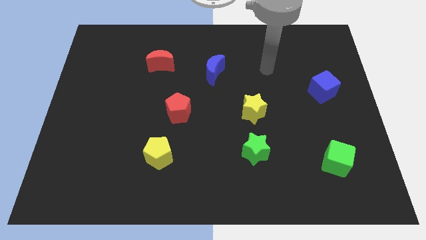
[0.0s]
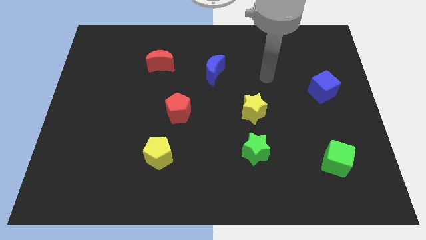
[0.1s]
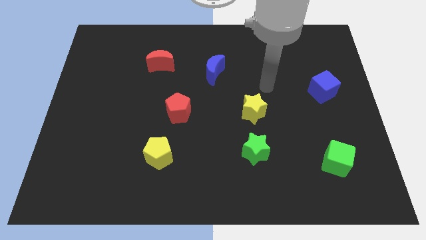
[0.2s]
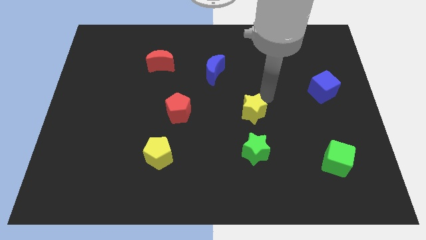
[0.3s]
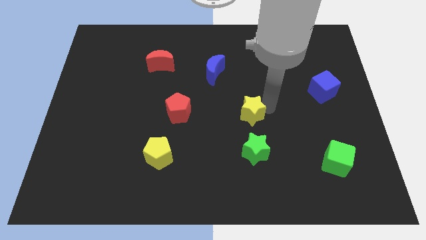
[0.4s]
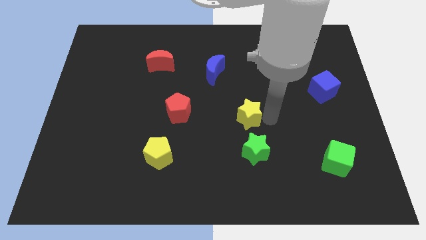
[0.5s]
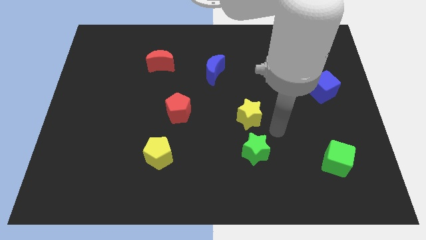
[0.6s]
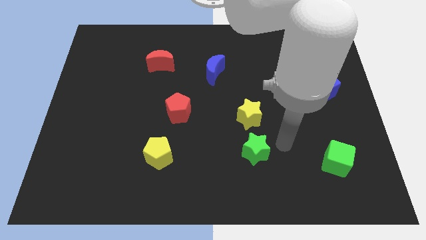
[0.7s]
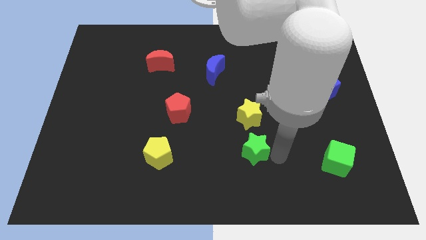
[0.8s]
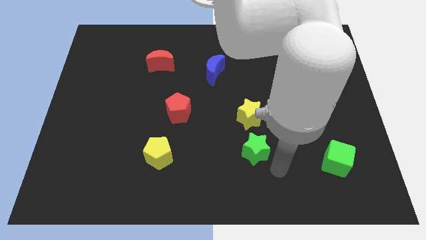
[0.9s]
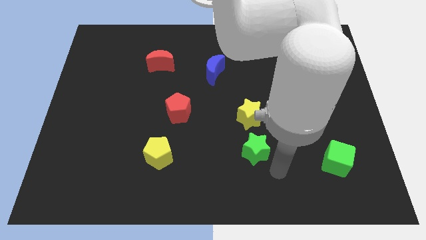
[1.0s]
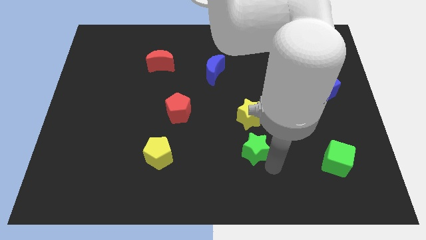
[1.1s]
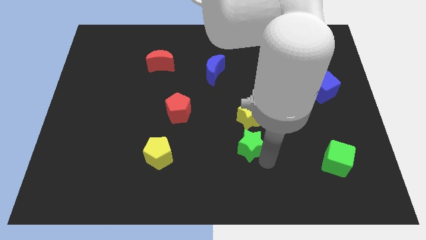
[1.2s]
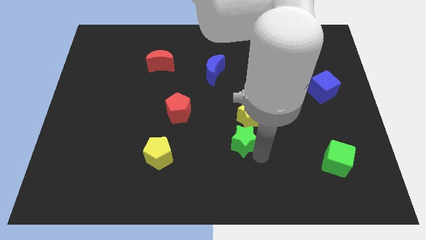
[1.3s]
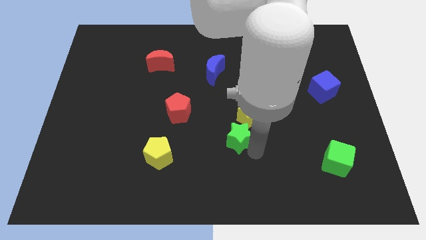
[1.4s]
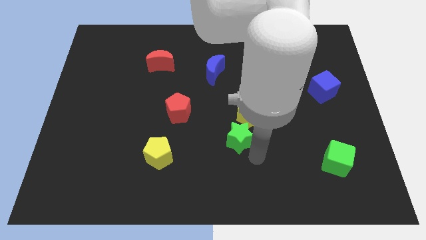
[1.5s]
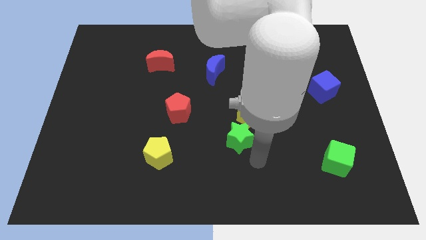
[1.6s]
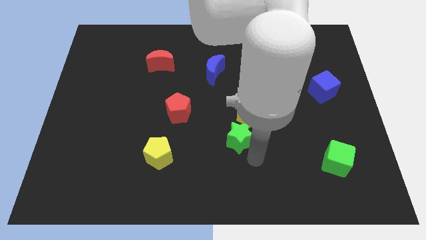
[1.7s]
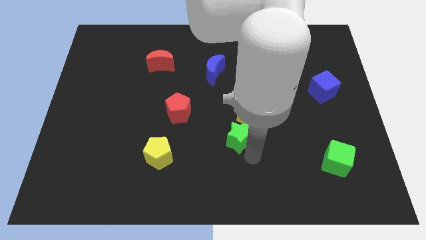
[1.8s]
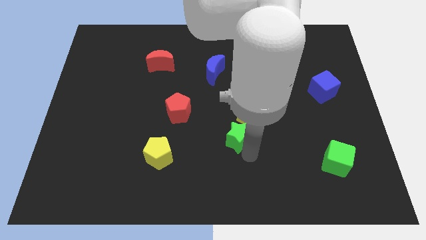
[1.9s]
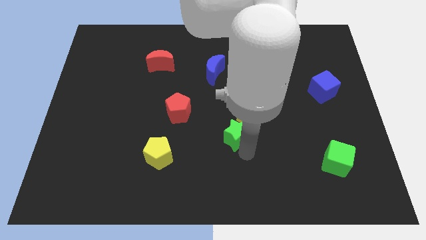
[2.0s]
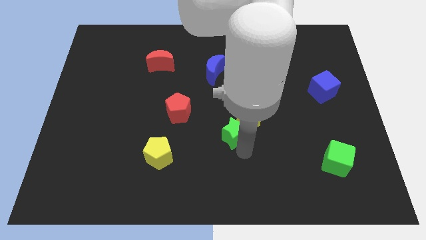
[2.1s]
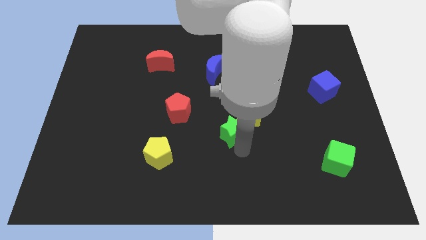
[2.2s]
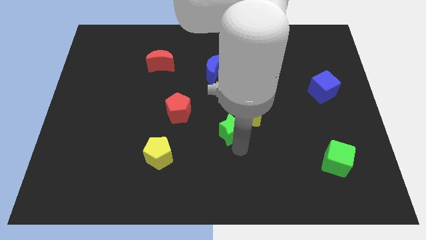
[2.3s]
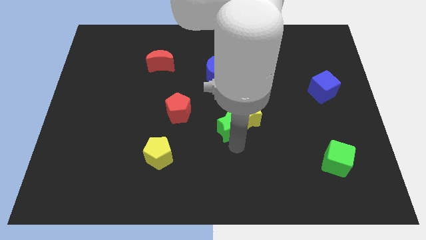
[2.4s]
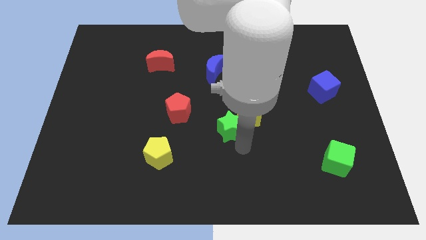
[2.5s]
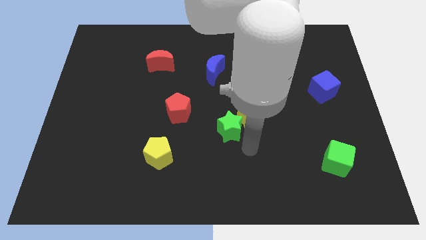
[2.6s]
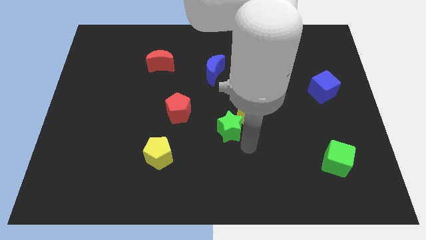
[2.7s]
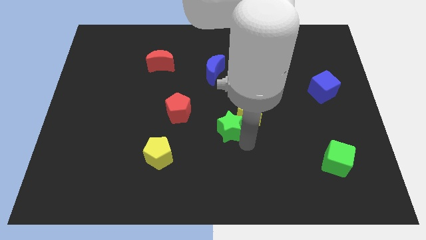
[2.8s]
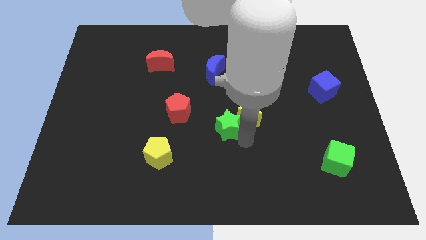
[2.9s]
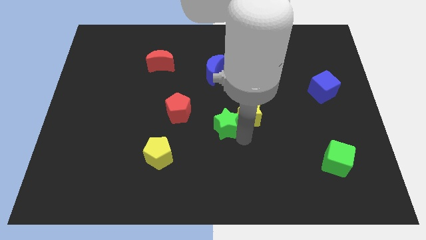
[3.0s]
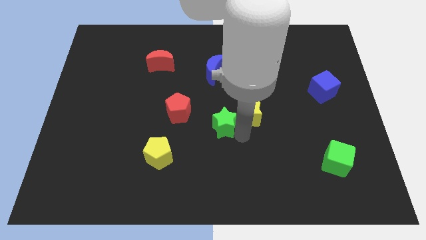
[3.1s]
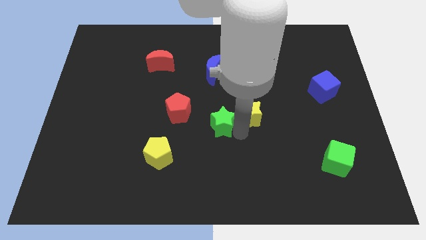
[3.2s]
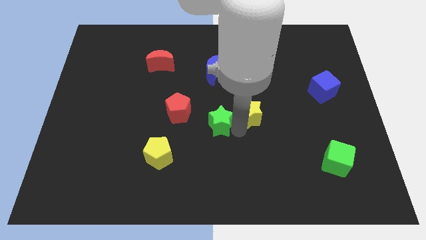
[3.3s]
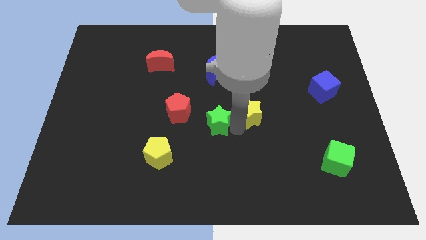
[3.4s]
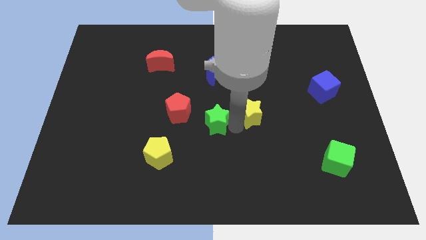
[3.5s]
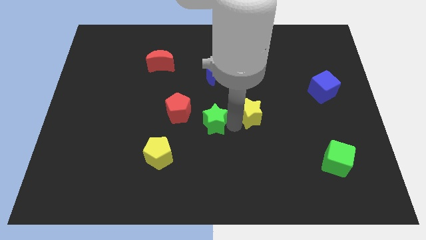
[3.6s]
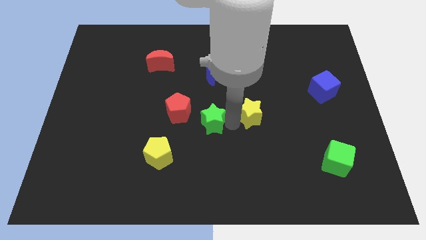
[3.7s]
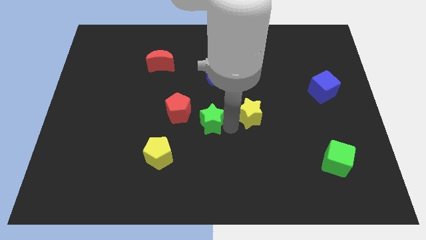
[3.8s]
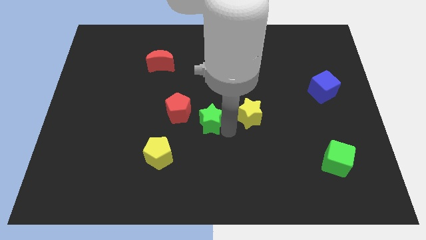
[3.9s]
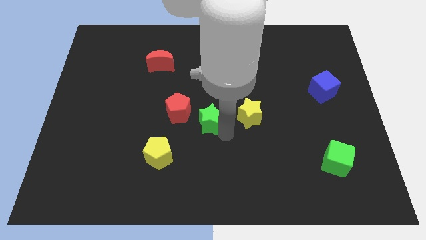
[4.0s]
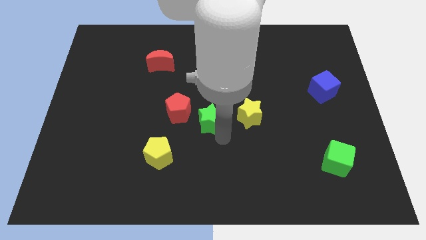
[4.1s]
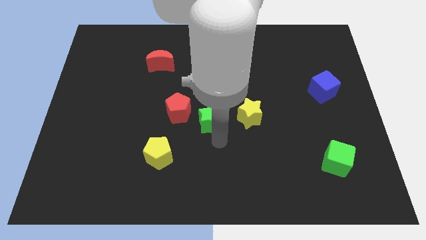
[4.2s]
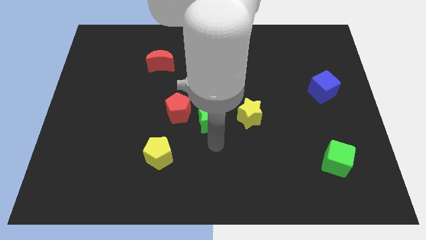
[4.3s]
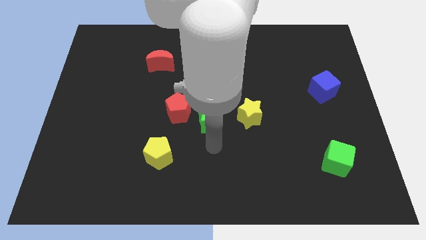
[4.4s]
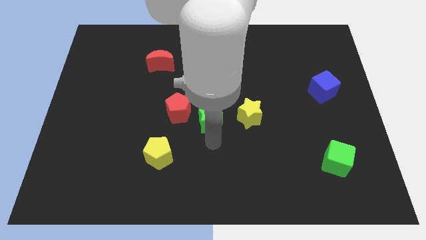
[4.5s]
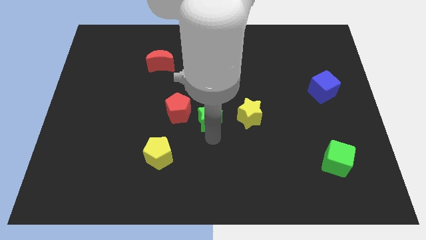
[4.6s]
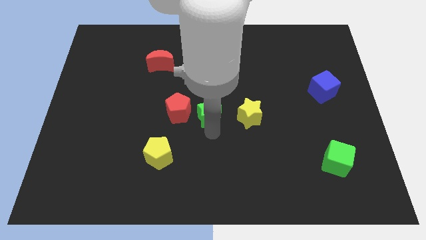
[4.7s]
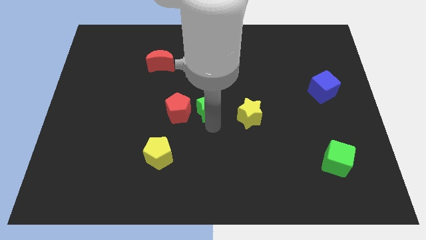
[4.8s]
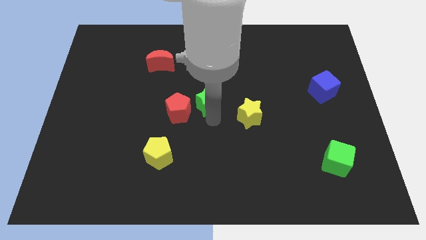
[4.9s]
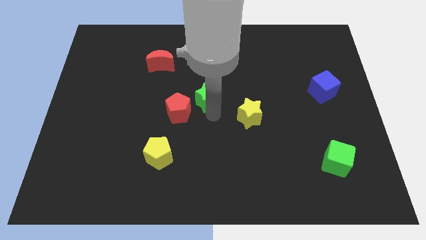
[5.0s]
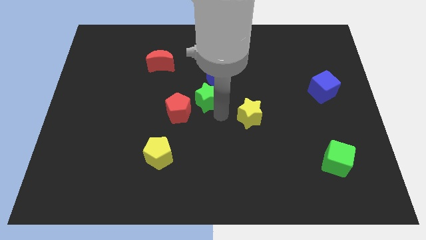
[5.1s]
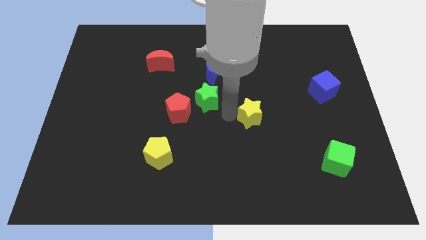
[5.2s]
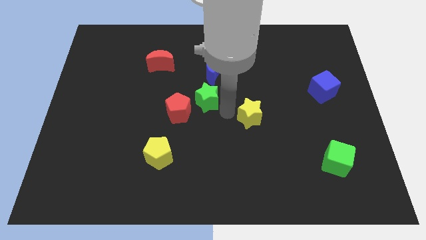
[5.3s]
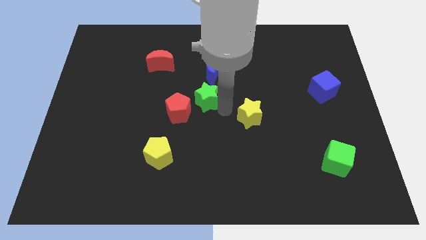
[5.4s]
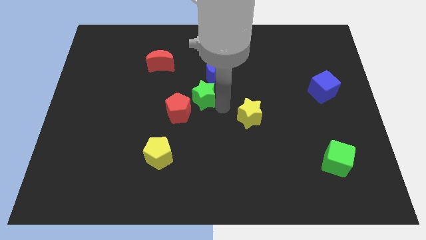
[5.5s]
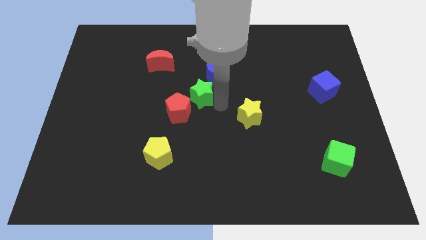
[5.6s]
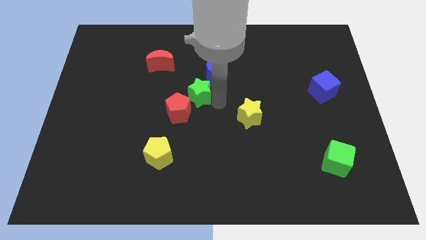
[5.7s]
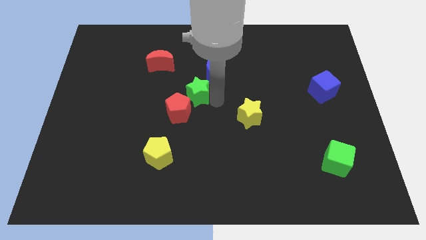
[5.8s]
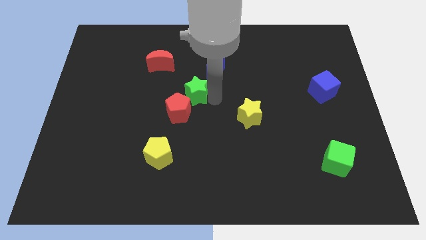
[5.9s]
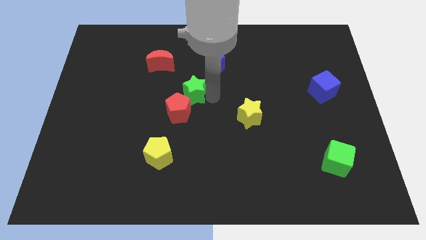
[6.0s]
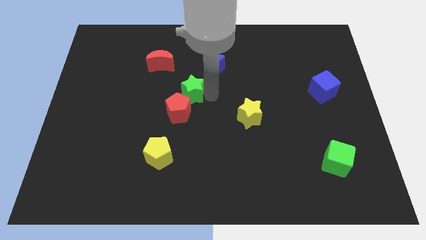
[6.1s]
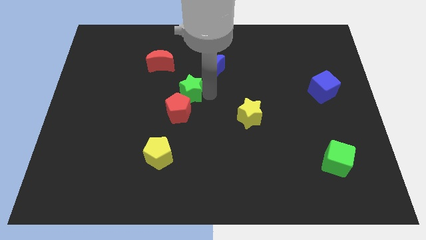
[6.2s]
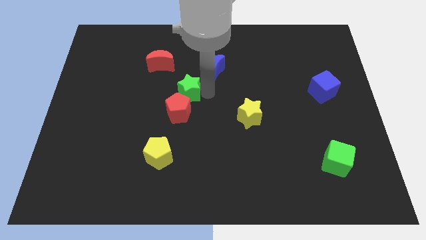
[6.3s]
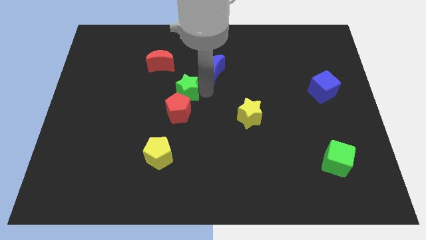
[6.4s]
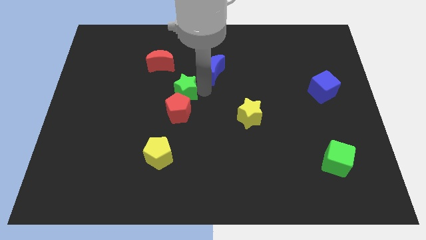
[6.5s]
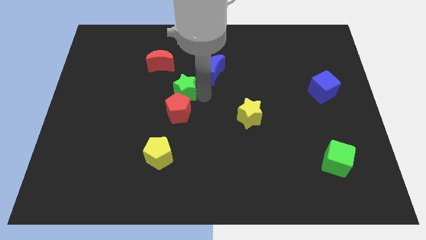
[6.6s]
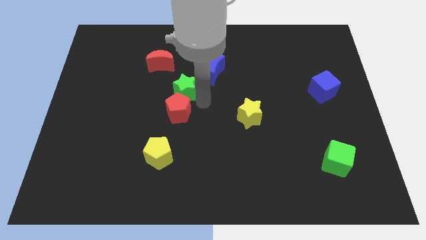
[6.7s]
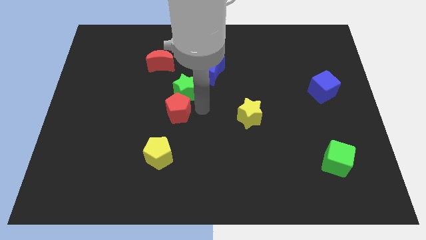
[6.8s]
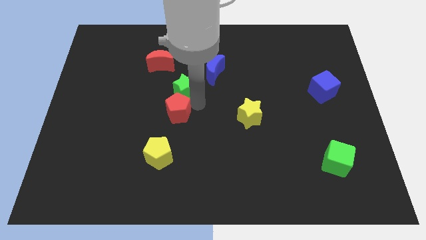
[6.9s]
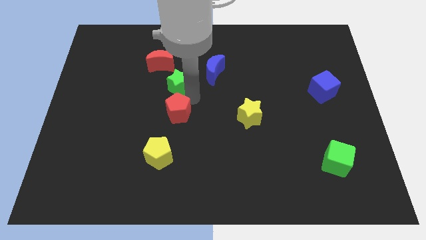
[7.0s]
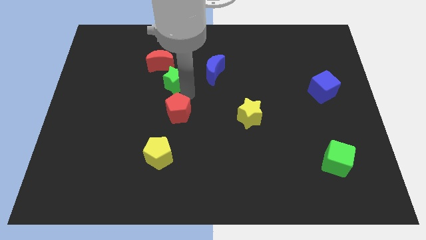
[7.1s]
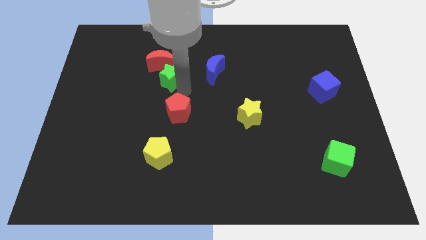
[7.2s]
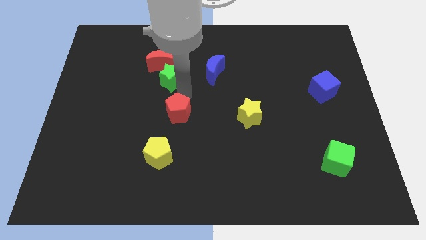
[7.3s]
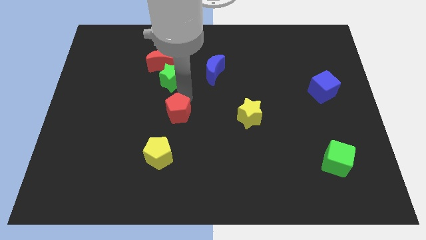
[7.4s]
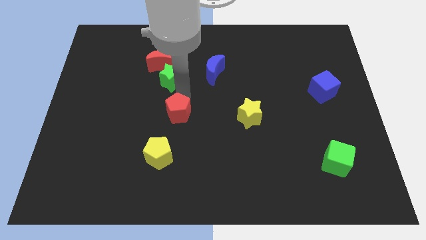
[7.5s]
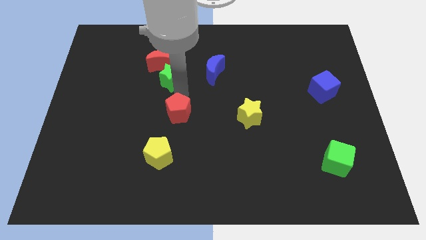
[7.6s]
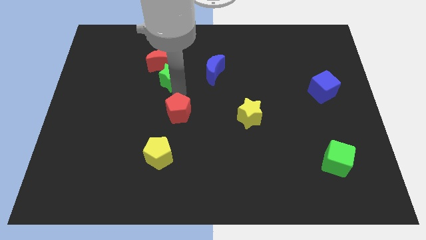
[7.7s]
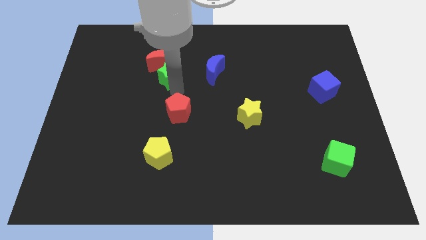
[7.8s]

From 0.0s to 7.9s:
push the green star close to the red moon

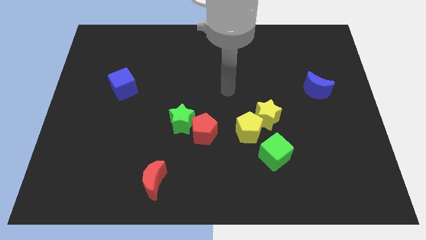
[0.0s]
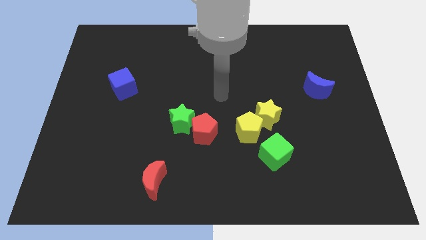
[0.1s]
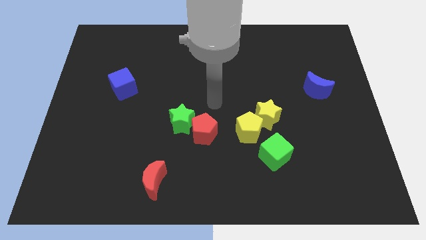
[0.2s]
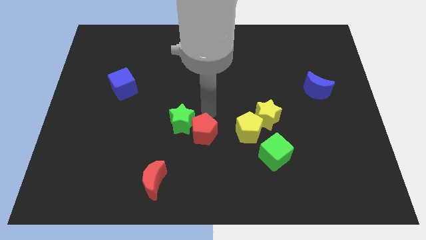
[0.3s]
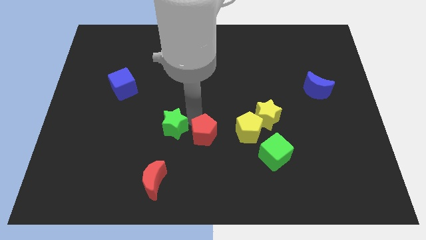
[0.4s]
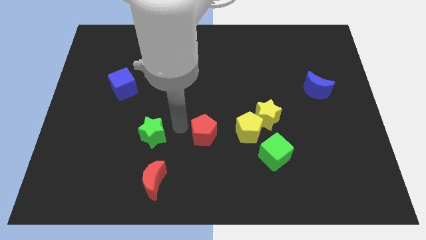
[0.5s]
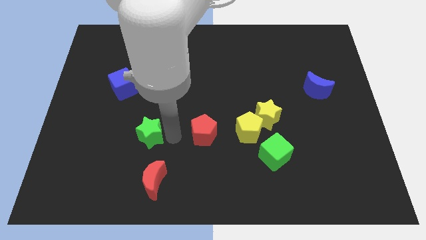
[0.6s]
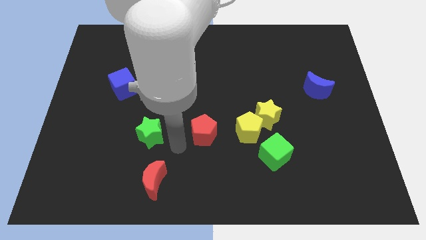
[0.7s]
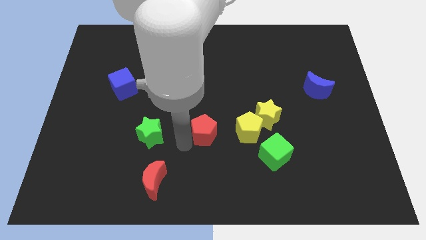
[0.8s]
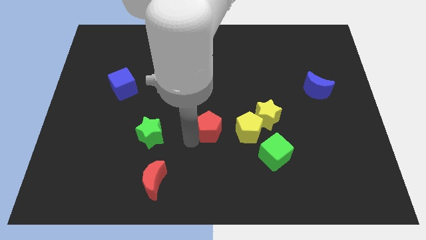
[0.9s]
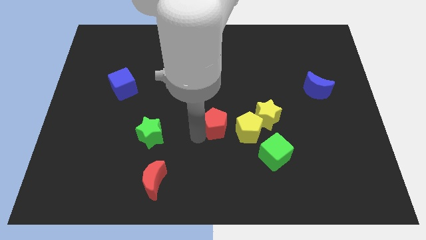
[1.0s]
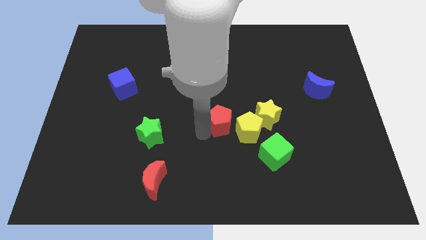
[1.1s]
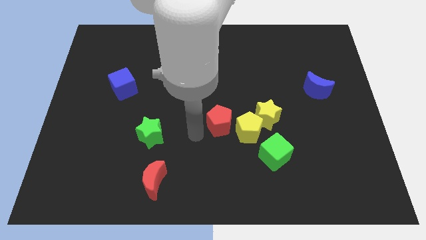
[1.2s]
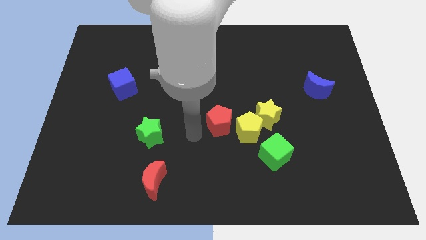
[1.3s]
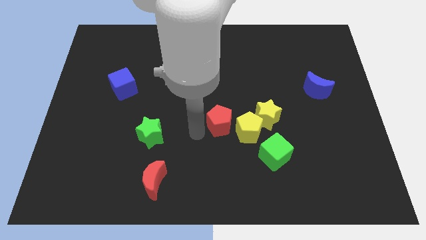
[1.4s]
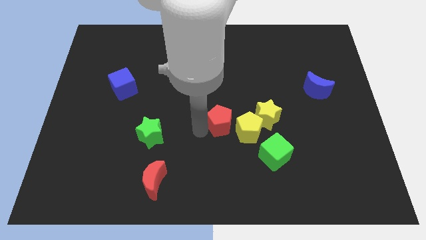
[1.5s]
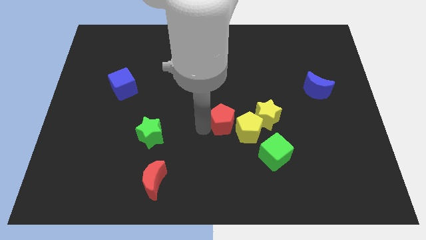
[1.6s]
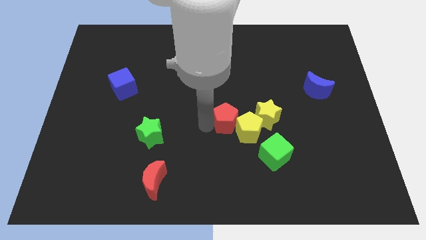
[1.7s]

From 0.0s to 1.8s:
slide the red pentagon to the yellow pentagon
